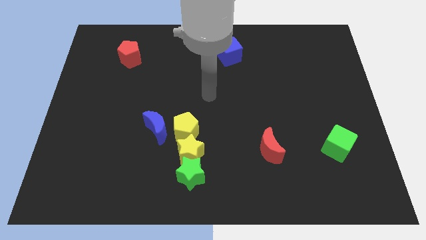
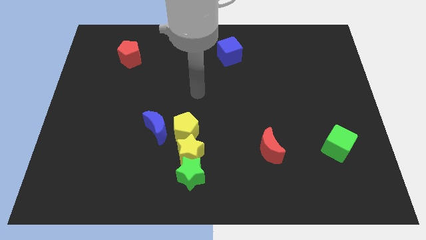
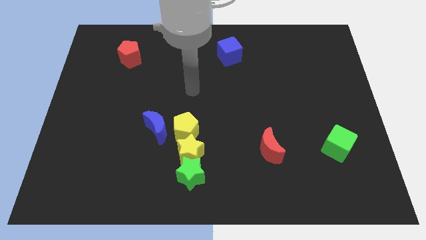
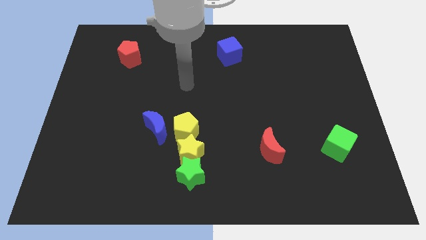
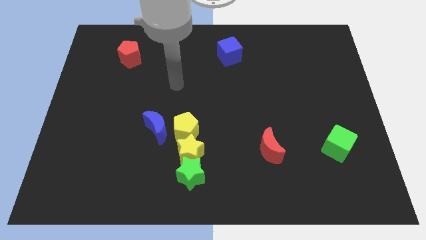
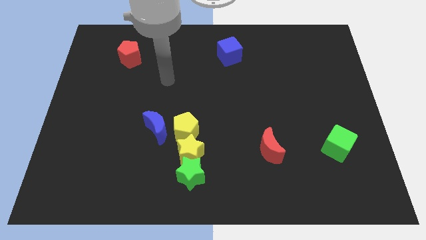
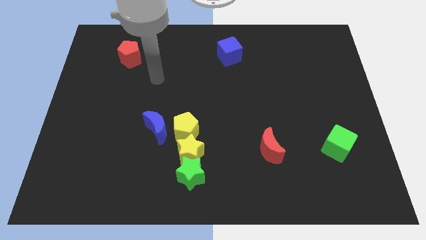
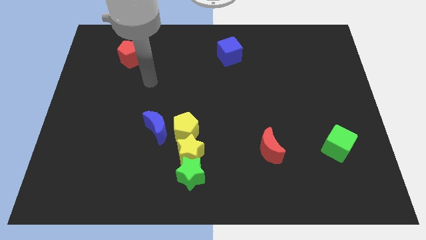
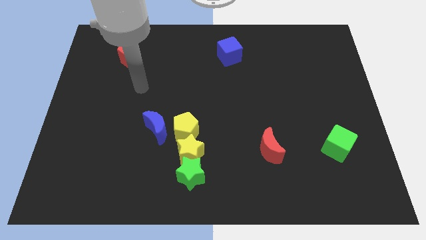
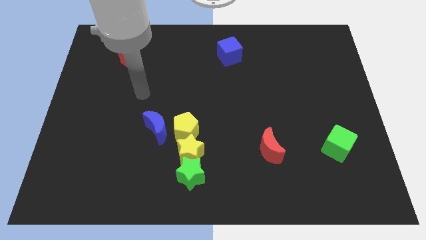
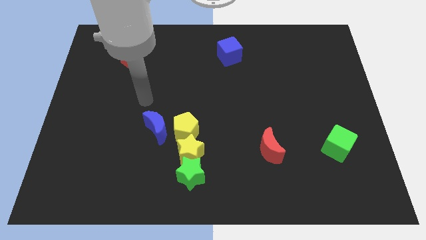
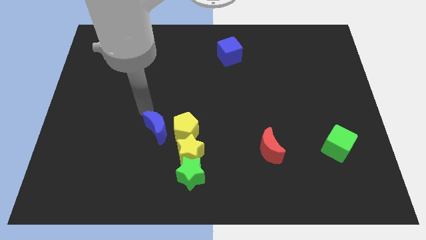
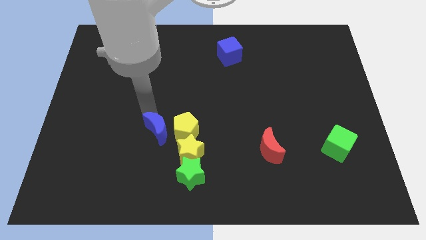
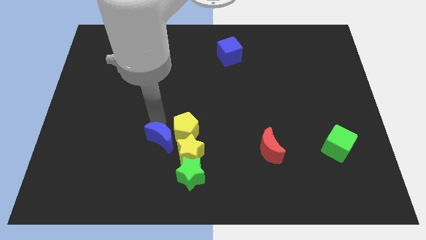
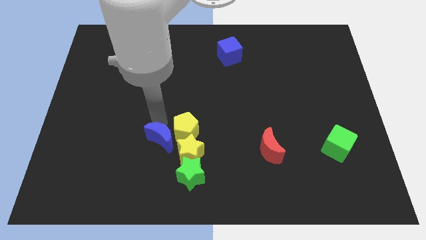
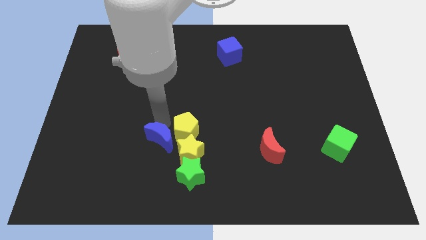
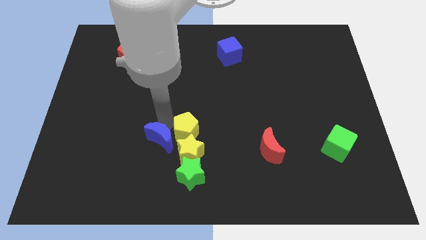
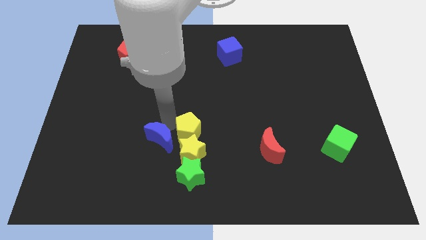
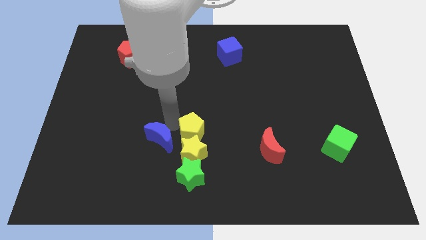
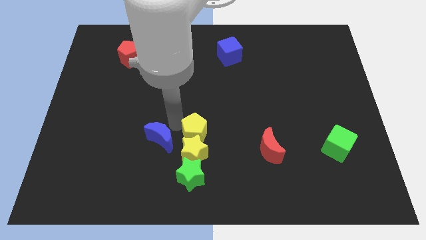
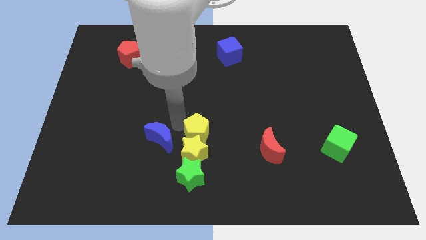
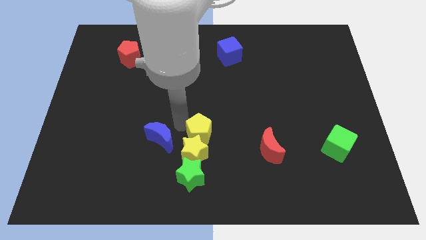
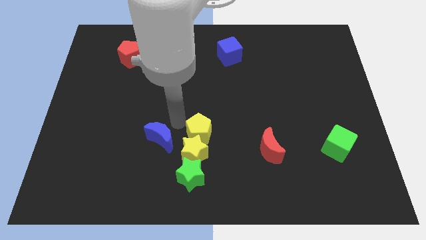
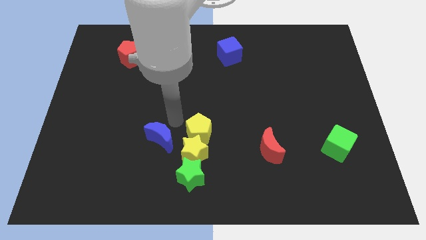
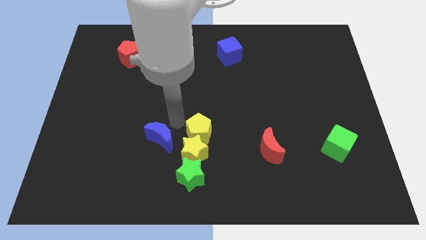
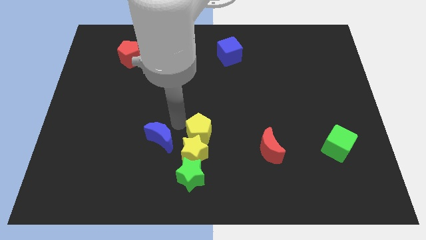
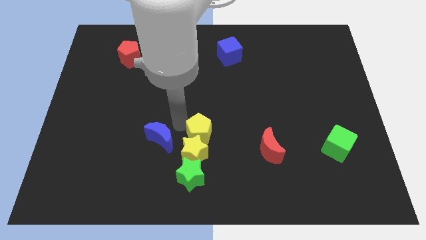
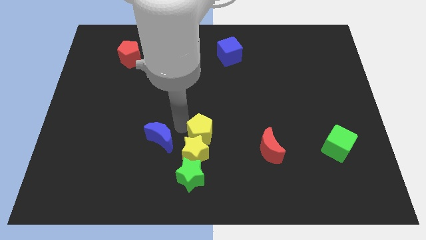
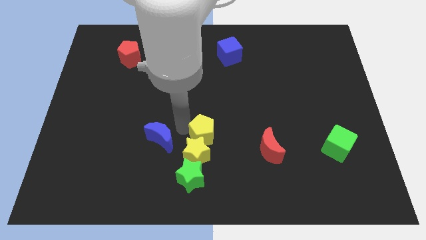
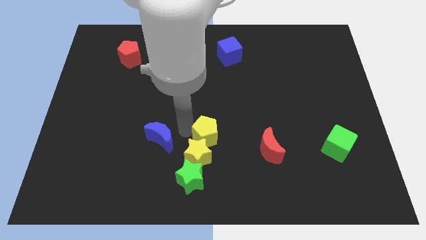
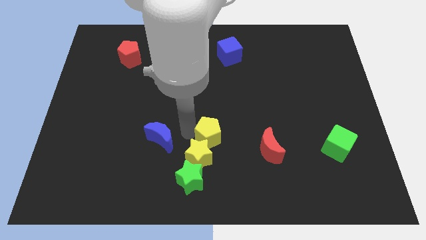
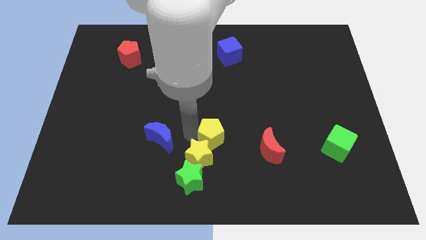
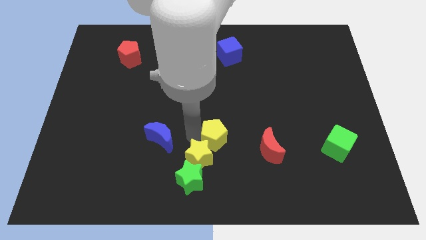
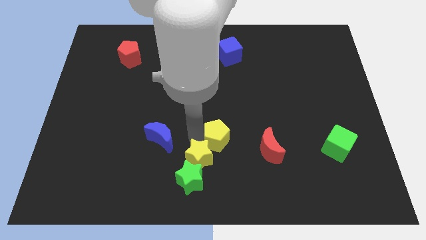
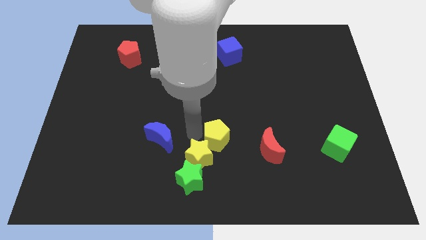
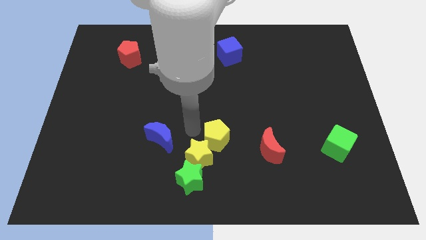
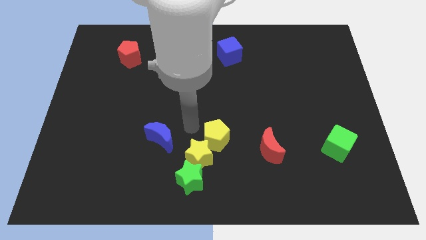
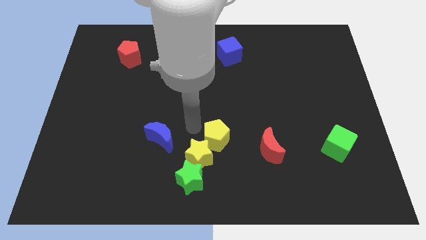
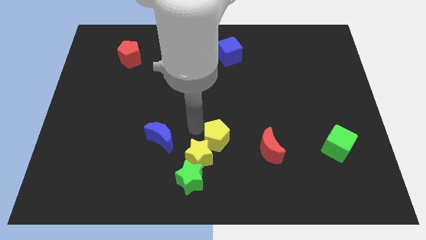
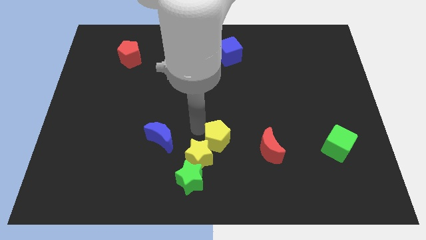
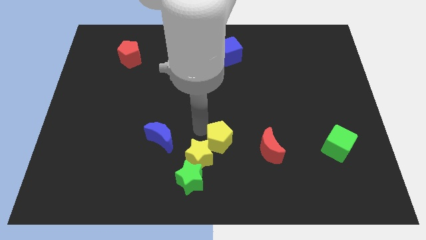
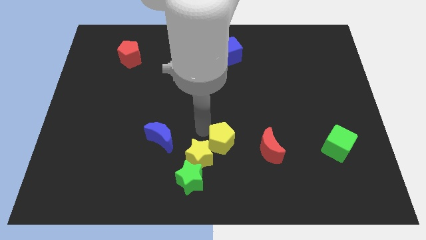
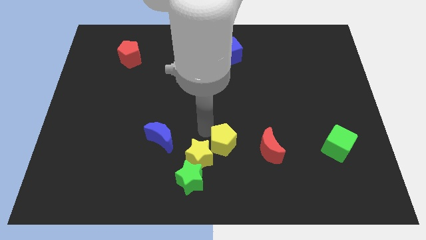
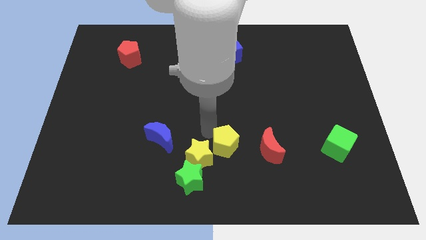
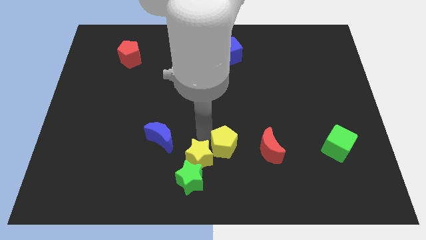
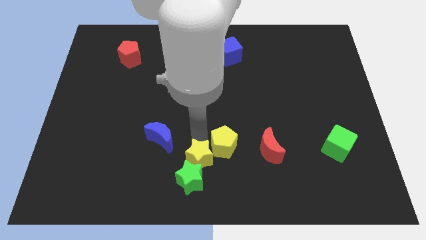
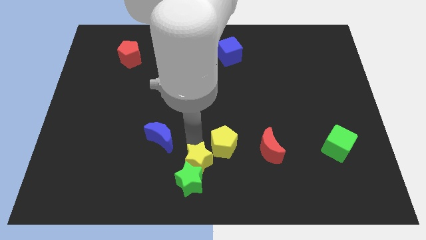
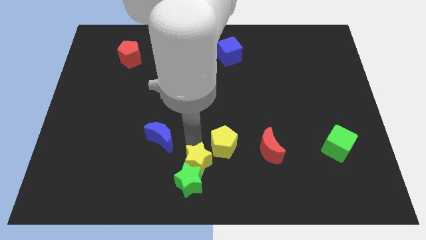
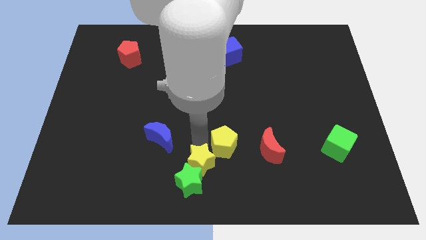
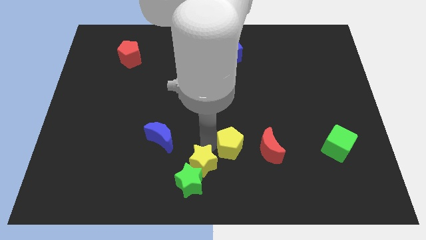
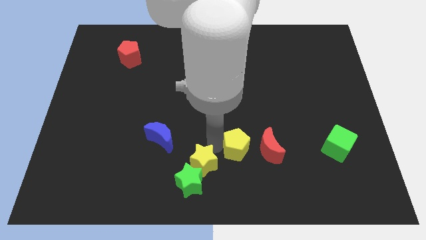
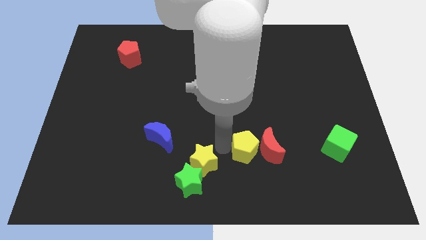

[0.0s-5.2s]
push the yellow pentagon towards the red moon

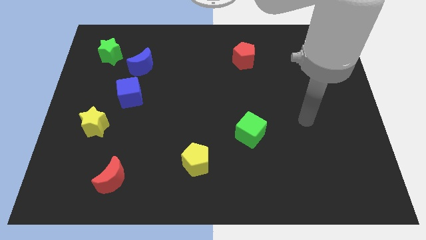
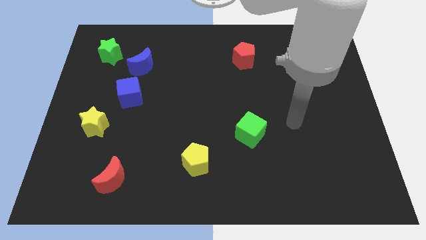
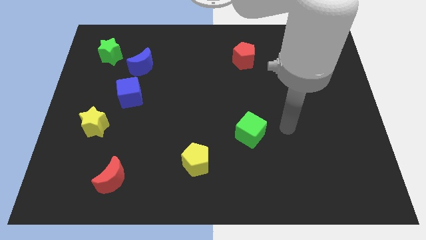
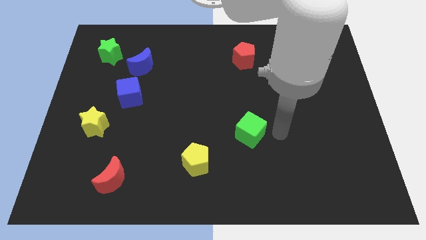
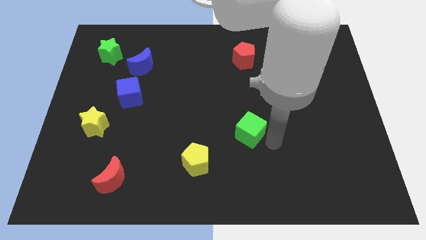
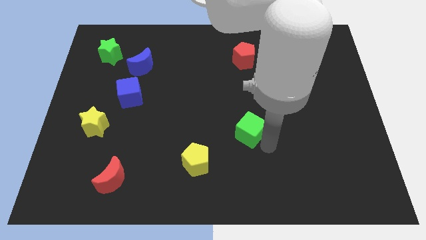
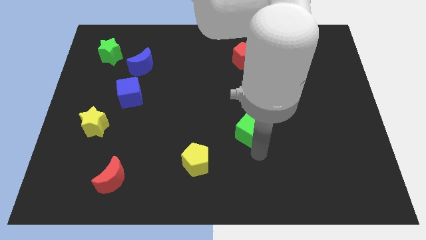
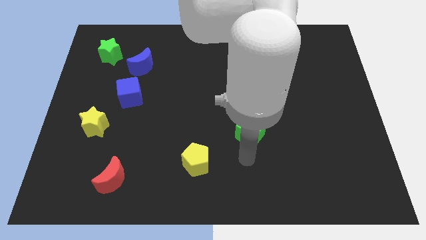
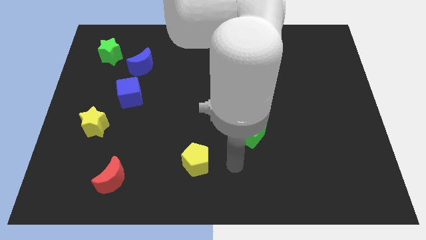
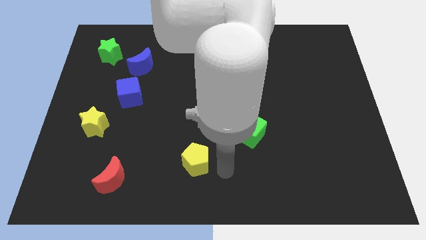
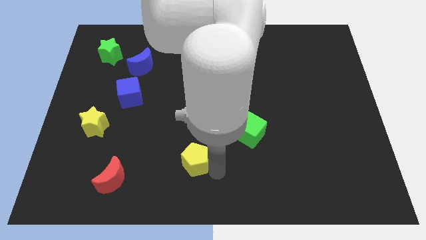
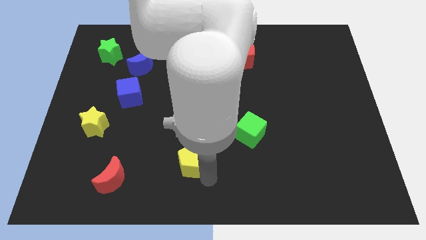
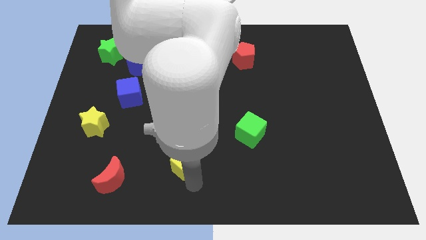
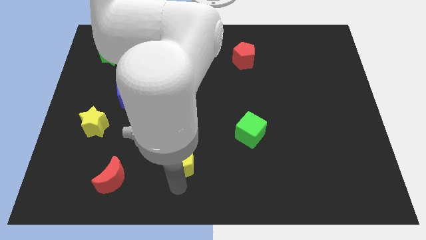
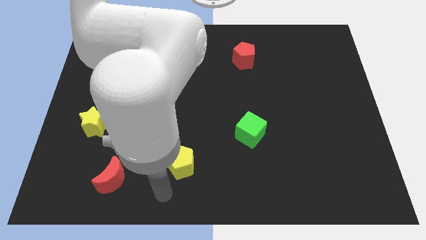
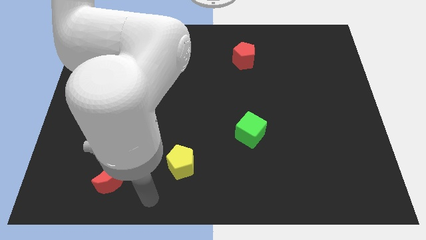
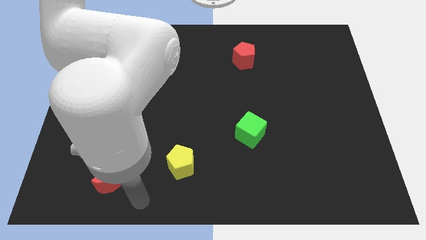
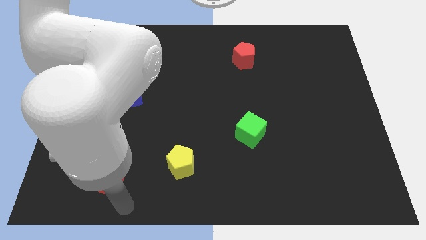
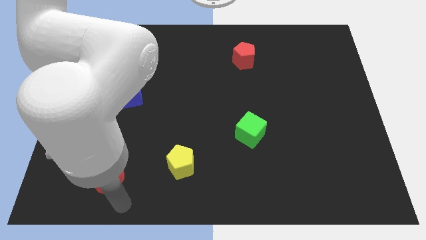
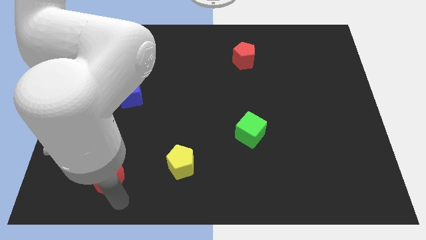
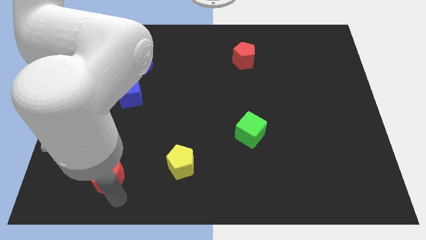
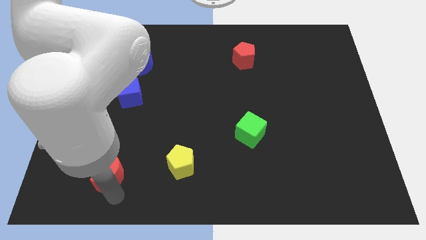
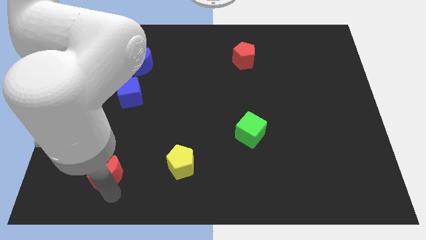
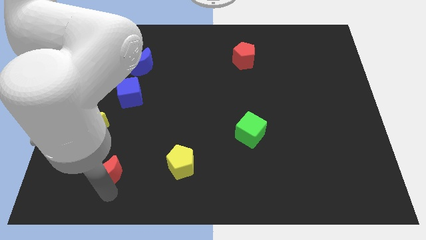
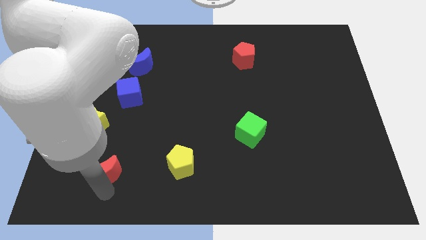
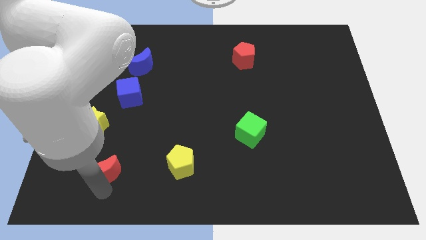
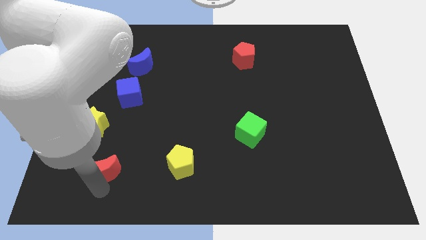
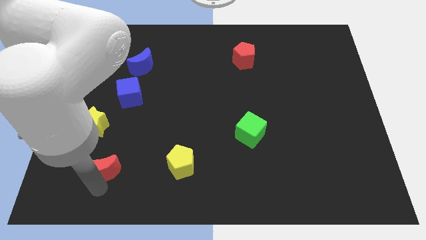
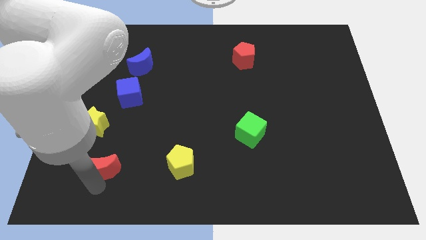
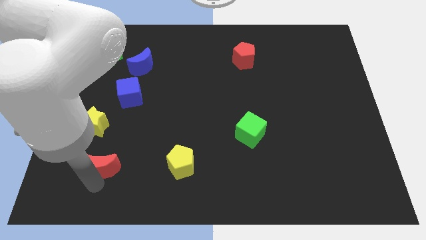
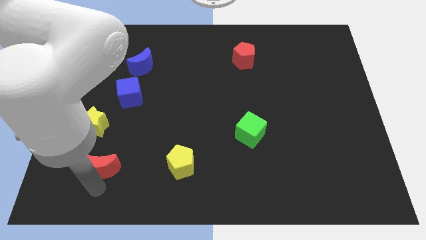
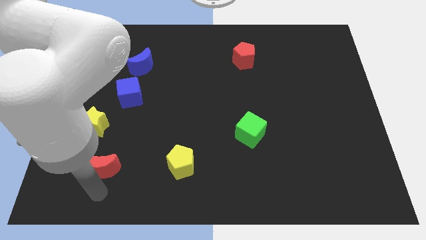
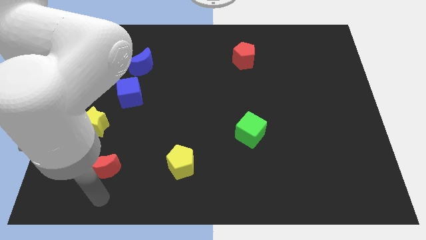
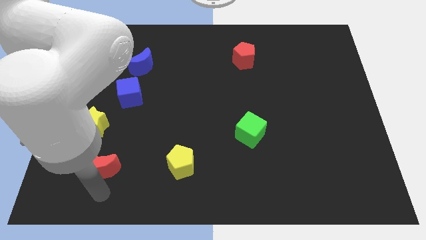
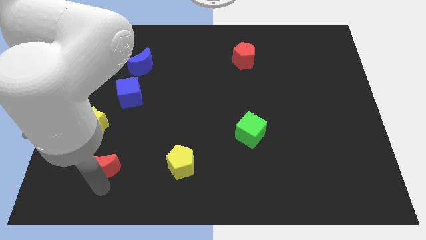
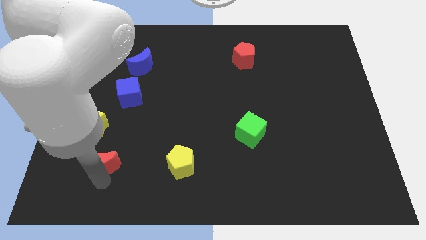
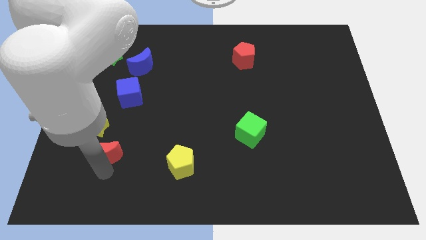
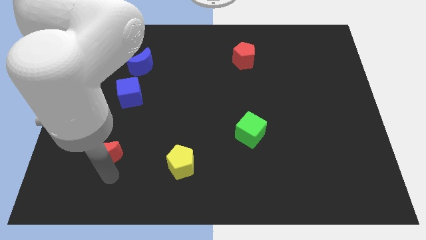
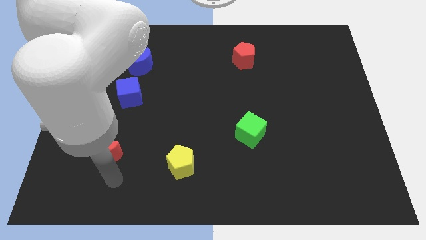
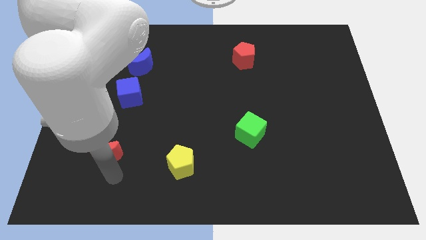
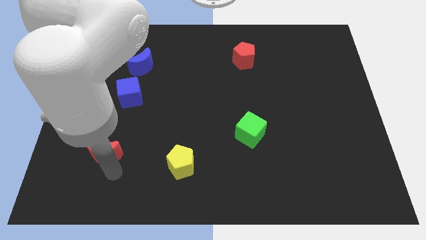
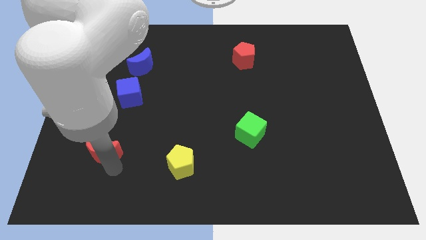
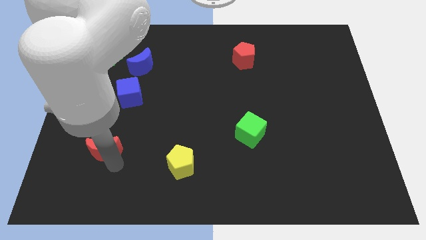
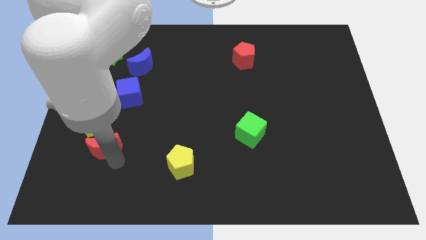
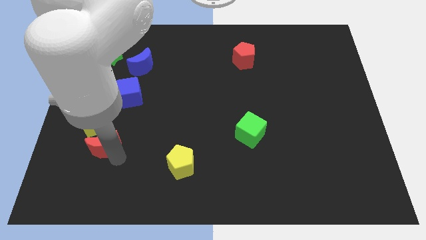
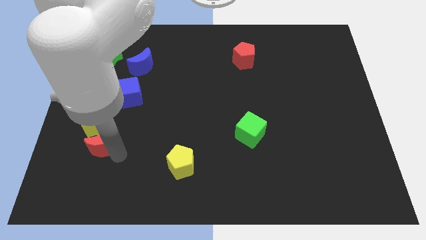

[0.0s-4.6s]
push the red moon next to the yellow star
